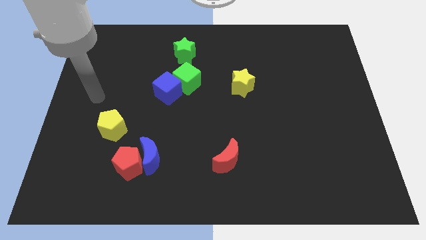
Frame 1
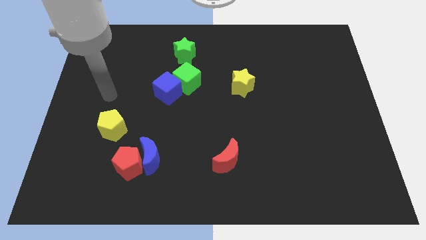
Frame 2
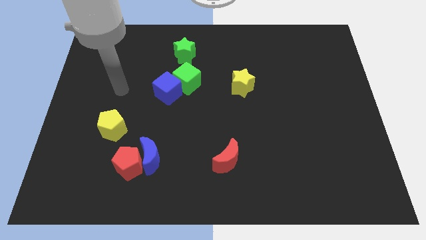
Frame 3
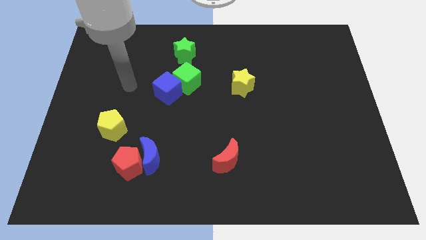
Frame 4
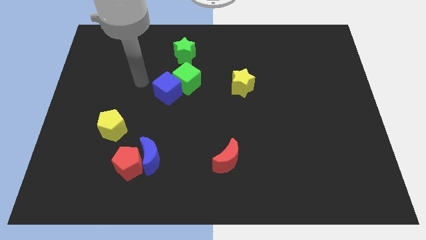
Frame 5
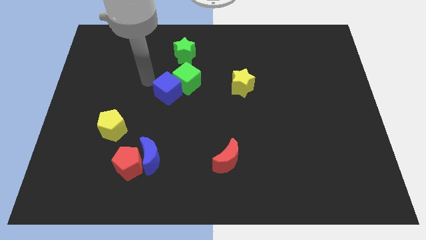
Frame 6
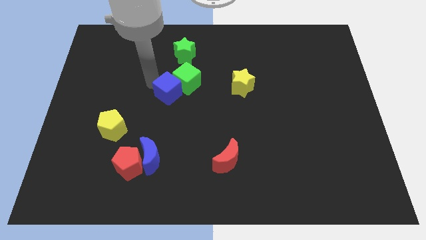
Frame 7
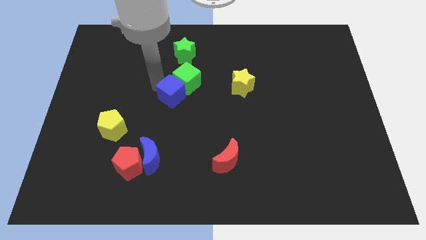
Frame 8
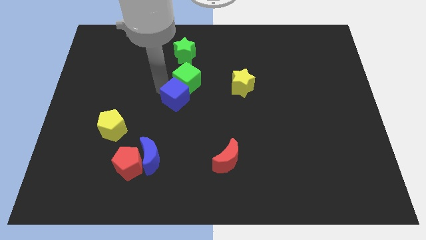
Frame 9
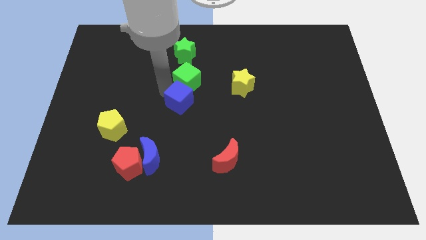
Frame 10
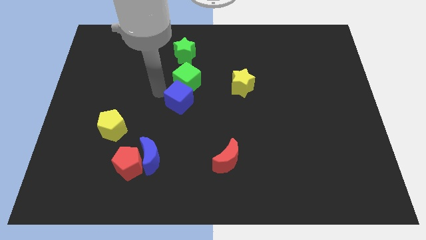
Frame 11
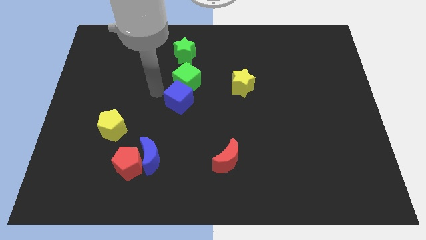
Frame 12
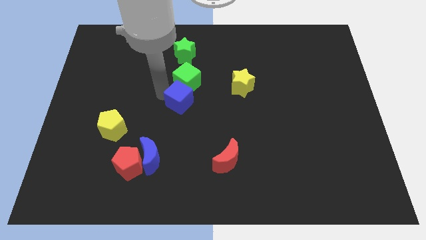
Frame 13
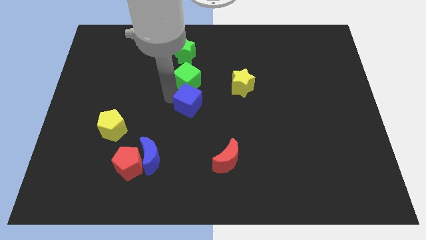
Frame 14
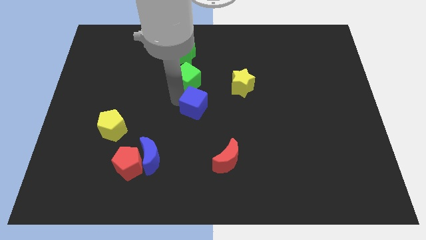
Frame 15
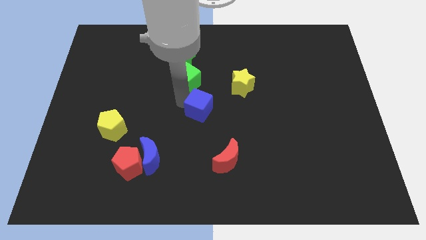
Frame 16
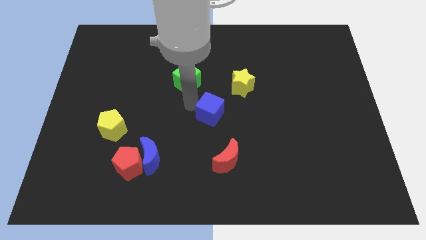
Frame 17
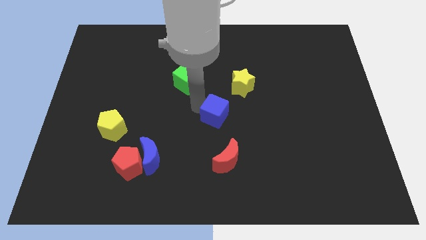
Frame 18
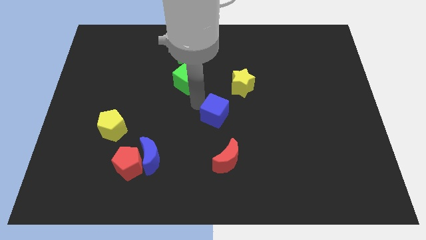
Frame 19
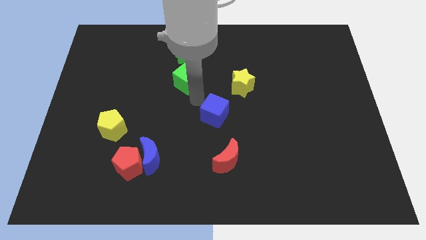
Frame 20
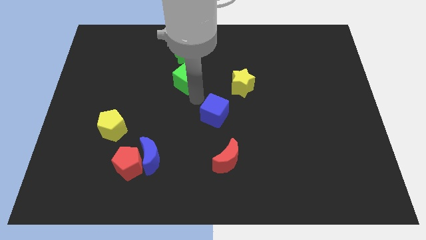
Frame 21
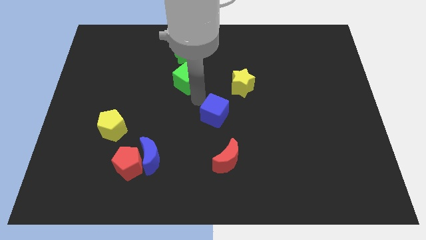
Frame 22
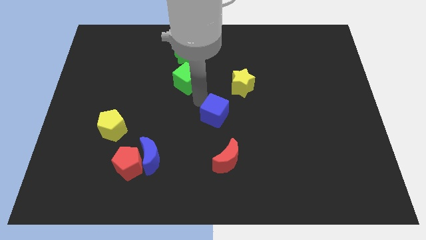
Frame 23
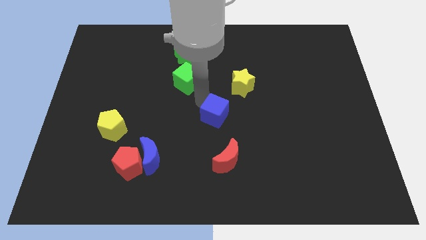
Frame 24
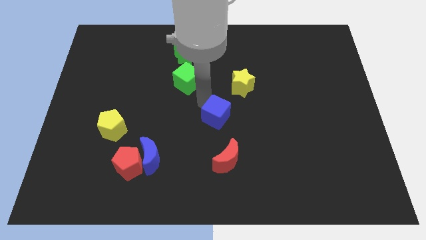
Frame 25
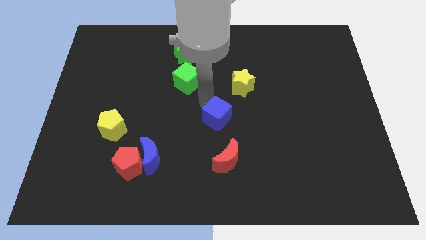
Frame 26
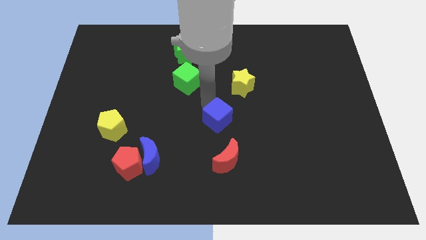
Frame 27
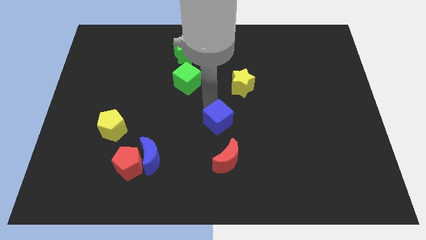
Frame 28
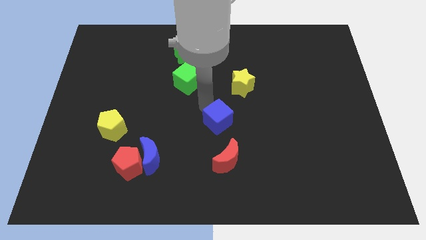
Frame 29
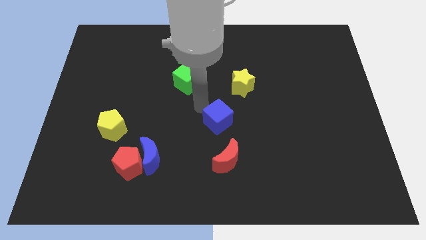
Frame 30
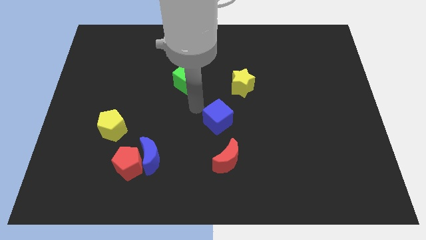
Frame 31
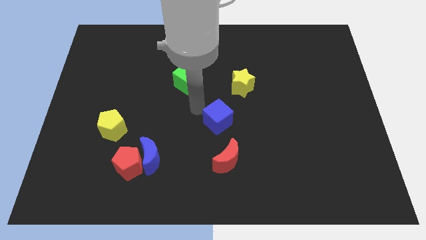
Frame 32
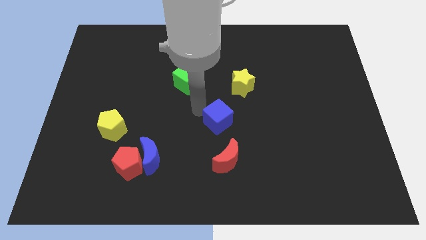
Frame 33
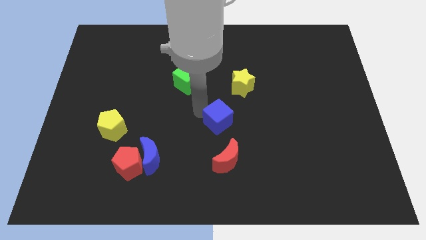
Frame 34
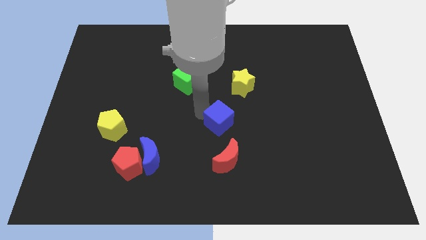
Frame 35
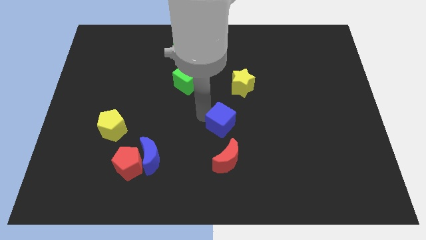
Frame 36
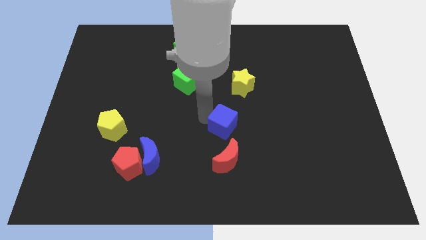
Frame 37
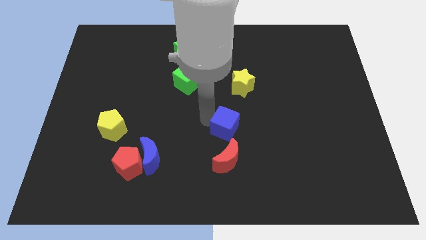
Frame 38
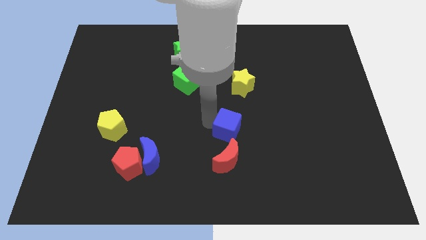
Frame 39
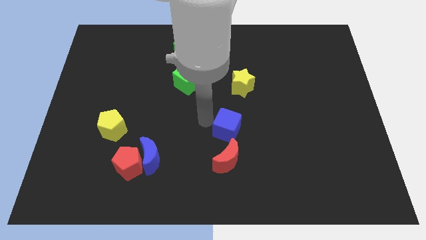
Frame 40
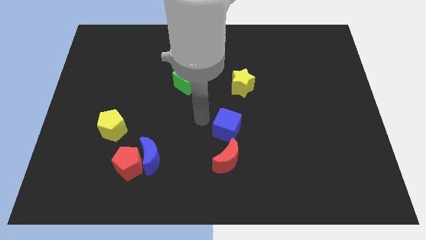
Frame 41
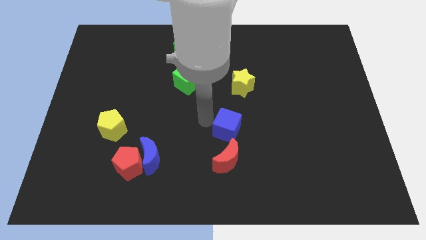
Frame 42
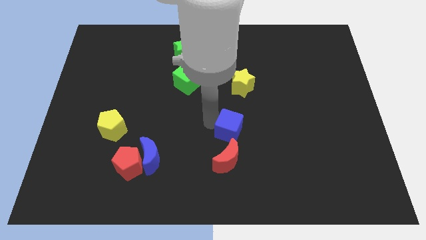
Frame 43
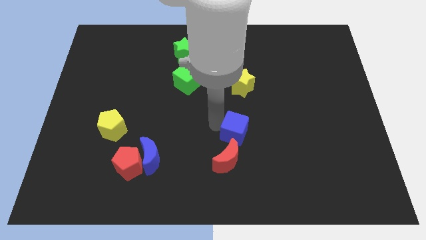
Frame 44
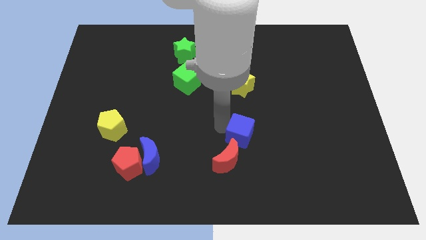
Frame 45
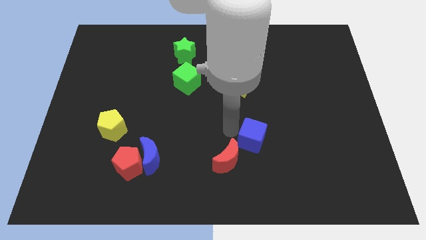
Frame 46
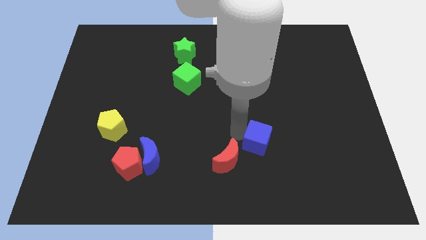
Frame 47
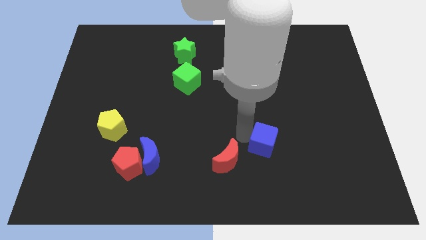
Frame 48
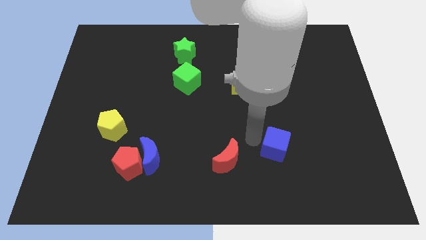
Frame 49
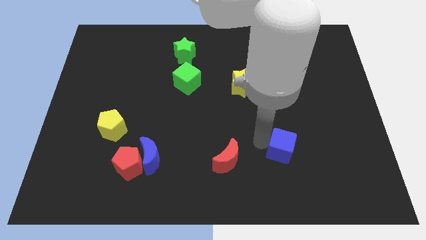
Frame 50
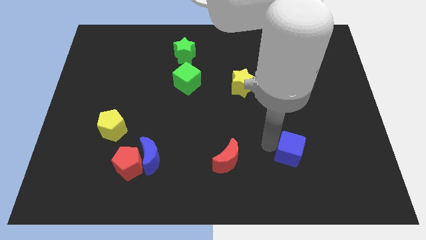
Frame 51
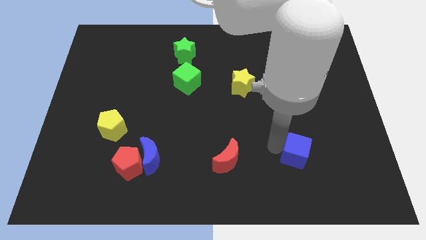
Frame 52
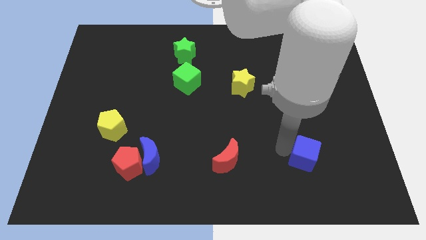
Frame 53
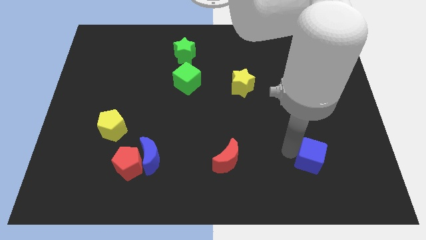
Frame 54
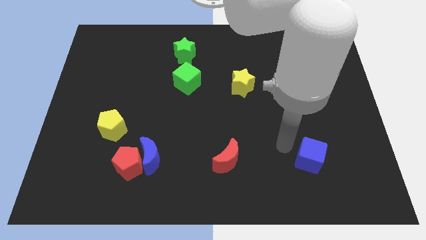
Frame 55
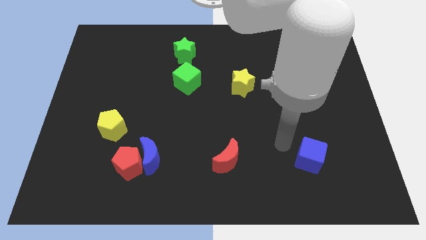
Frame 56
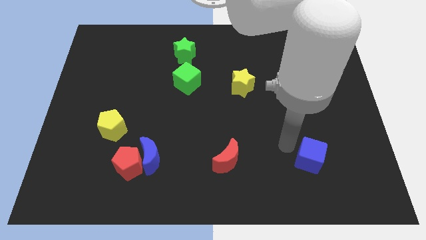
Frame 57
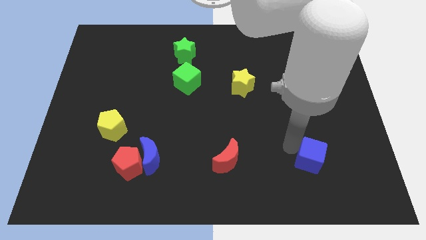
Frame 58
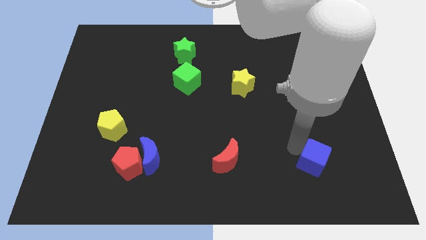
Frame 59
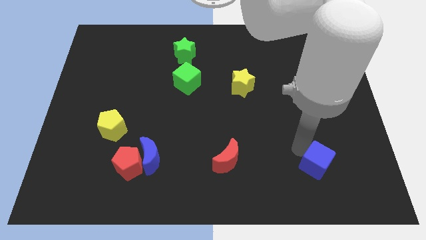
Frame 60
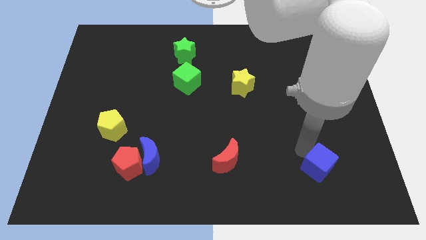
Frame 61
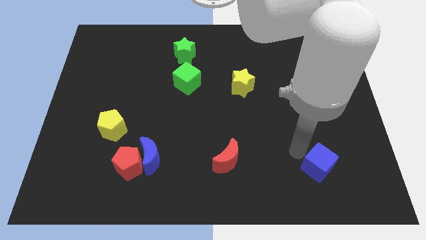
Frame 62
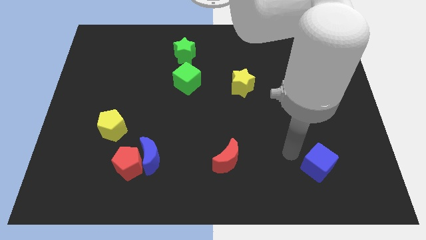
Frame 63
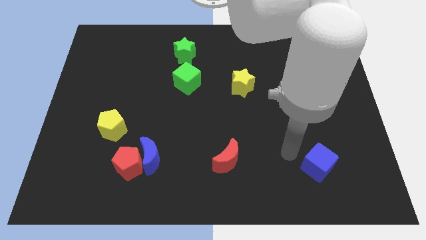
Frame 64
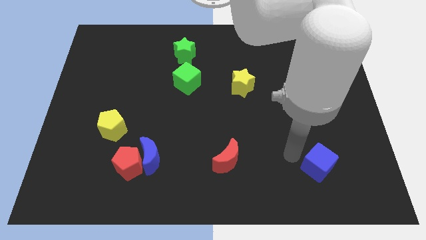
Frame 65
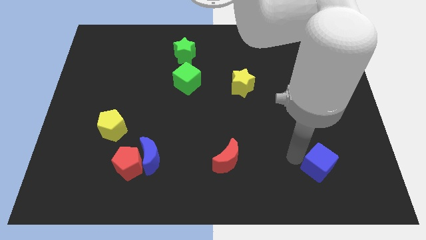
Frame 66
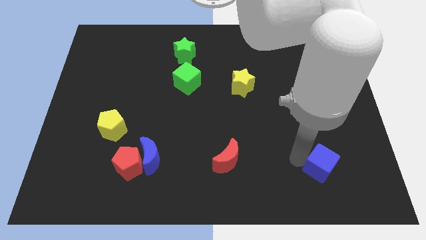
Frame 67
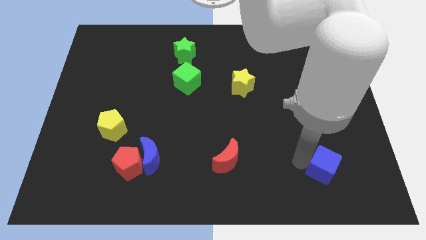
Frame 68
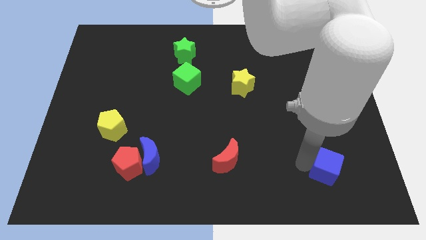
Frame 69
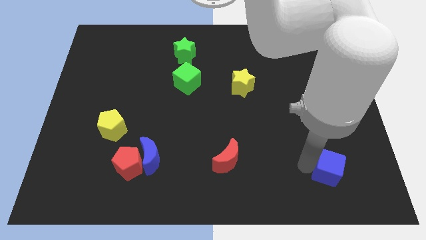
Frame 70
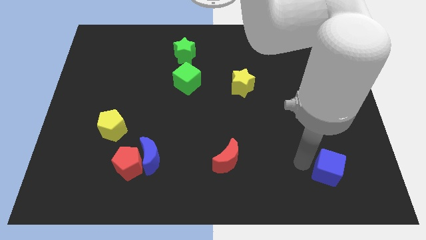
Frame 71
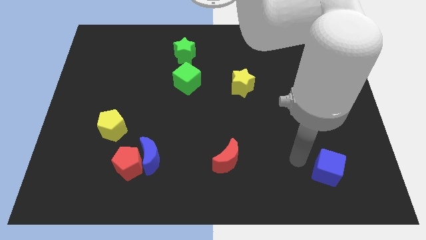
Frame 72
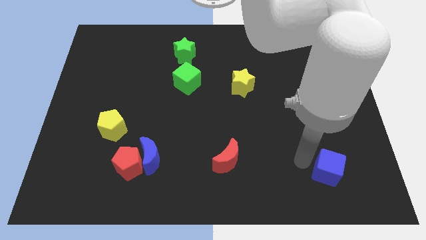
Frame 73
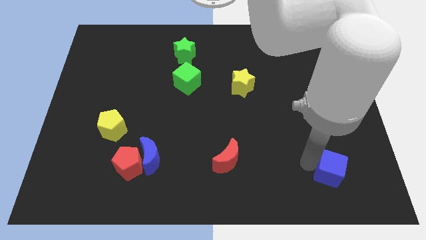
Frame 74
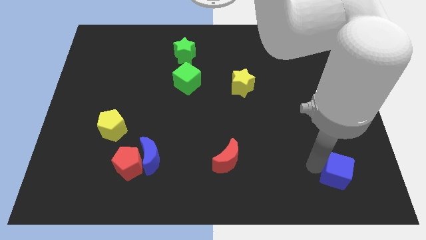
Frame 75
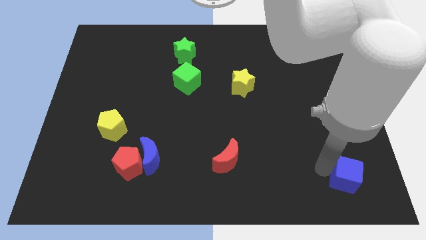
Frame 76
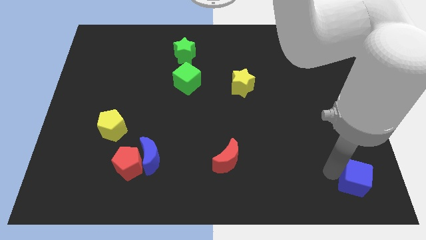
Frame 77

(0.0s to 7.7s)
slide the blue cube to the bottom right of the board
